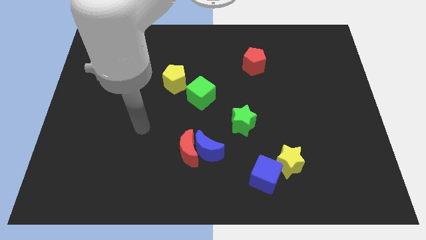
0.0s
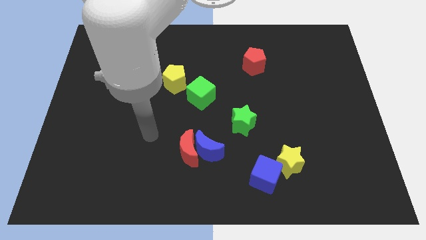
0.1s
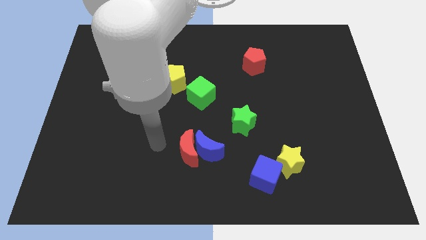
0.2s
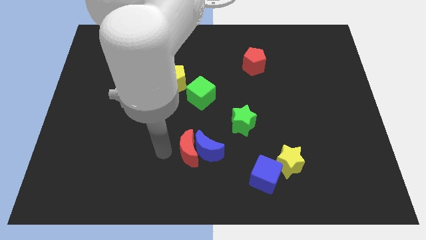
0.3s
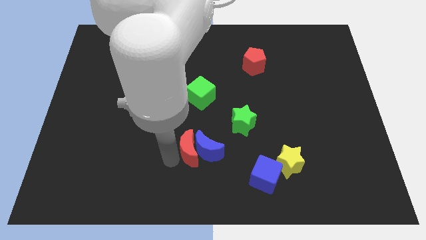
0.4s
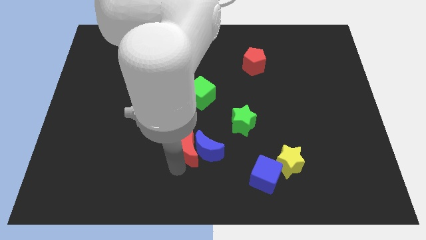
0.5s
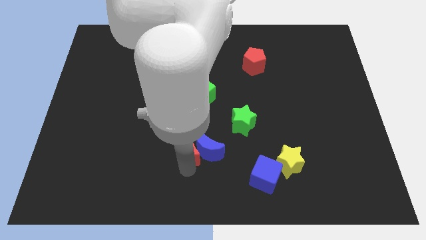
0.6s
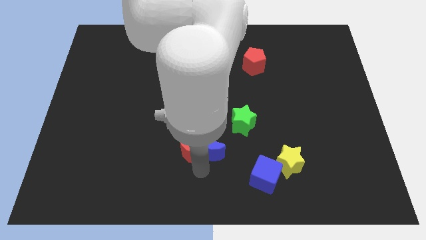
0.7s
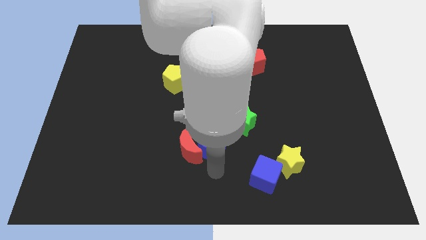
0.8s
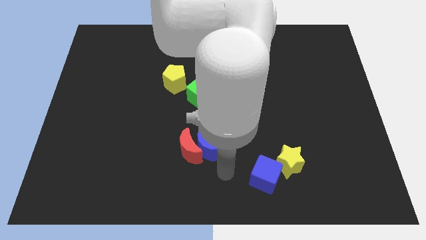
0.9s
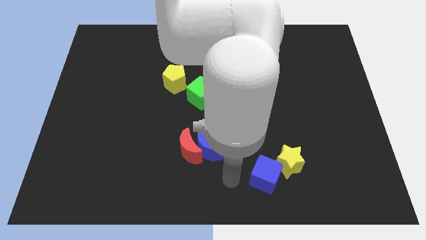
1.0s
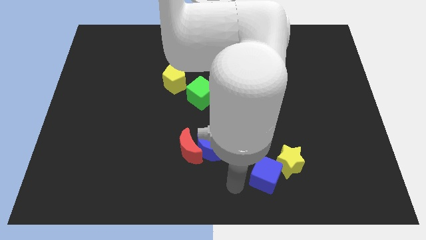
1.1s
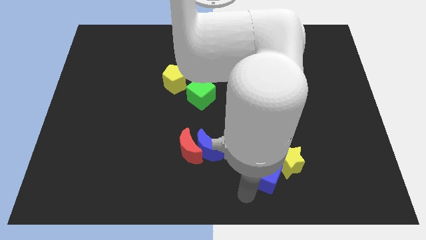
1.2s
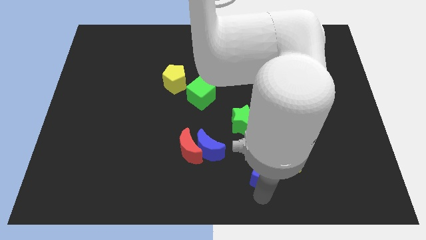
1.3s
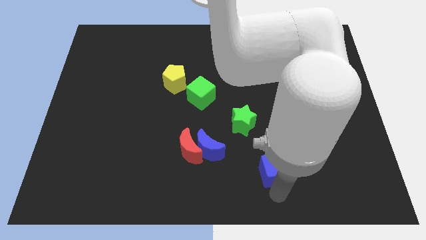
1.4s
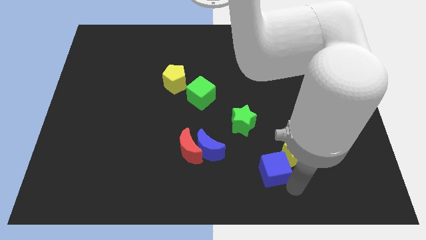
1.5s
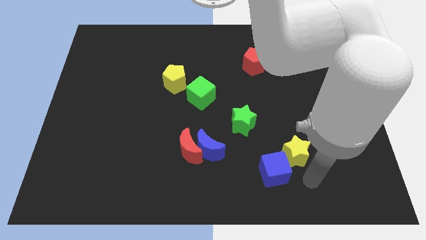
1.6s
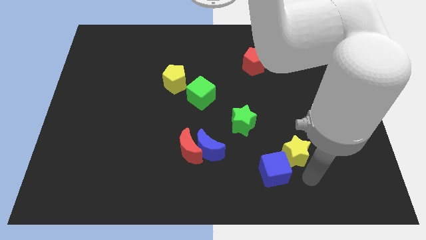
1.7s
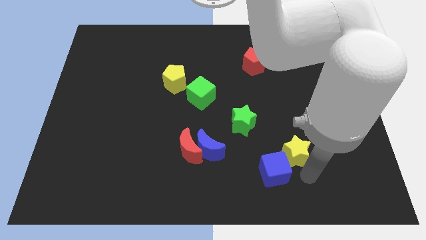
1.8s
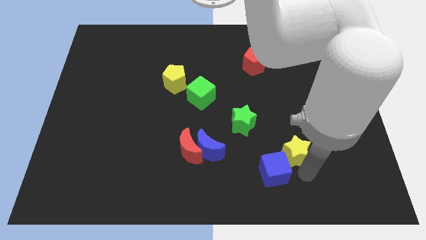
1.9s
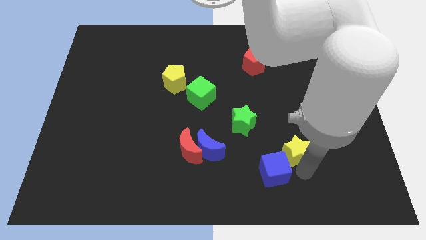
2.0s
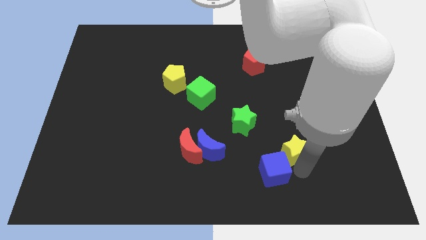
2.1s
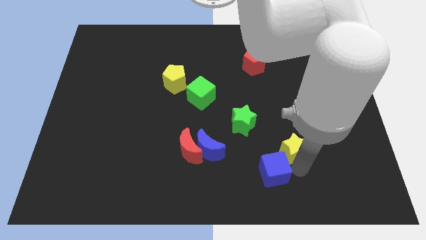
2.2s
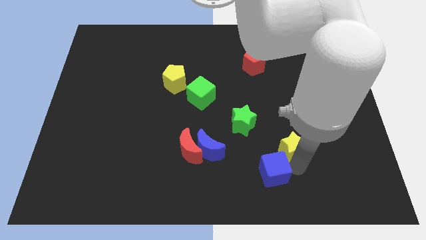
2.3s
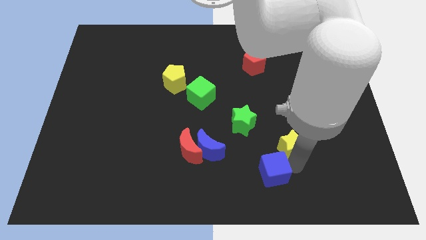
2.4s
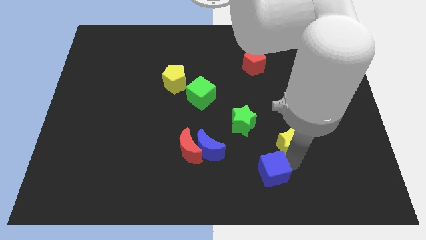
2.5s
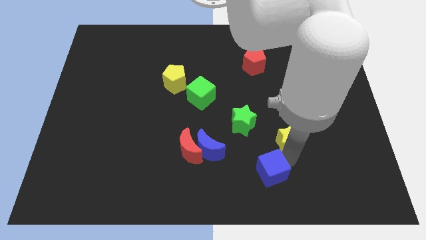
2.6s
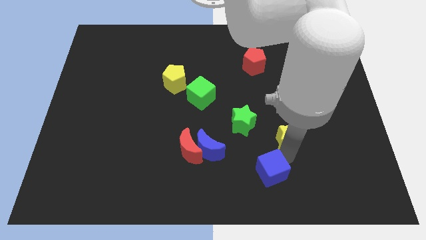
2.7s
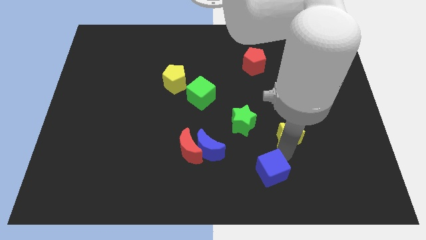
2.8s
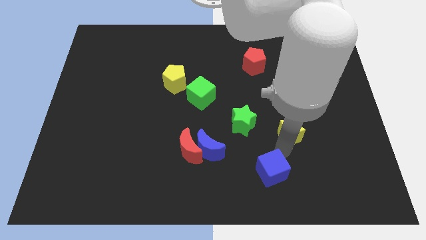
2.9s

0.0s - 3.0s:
slide the yellow star up a bit

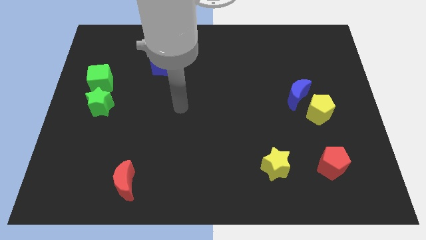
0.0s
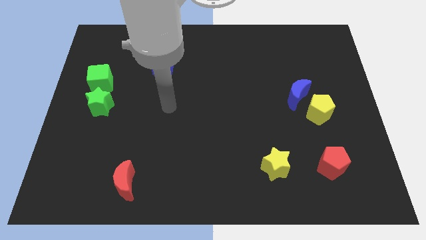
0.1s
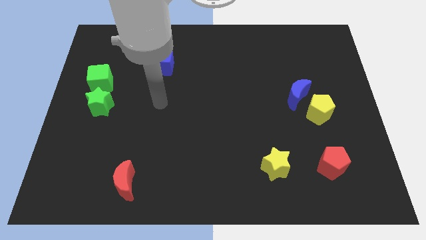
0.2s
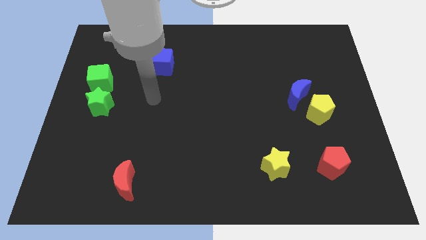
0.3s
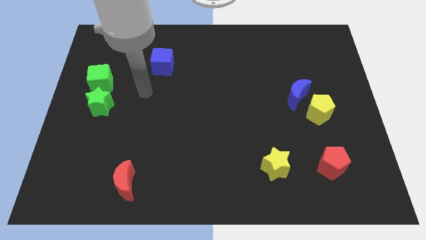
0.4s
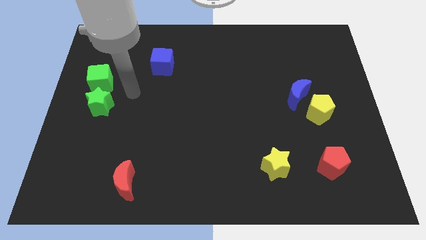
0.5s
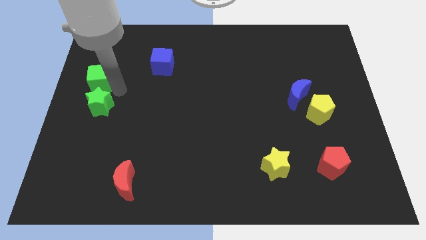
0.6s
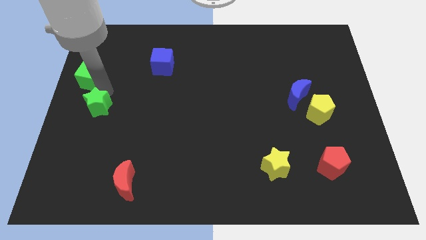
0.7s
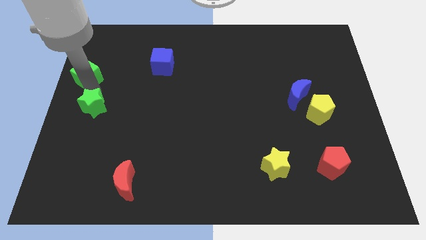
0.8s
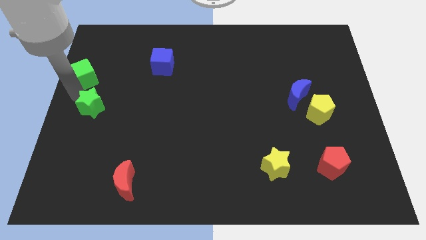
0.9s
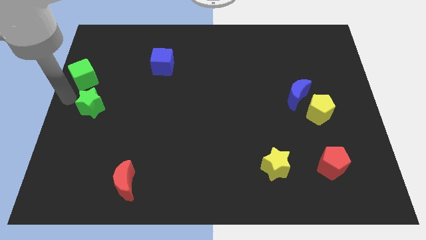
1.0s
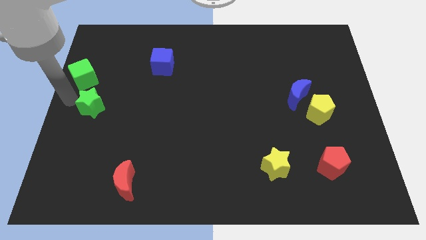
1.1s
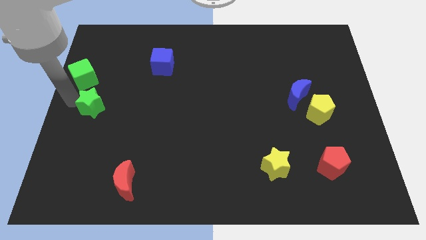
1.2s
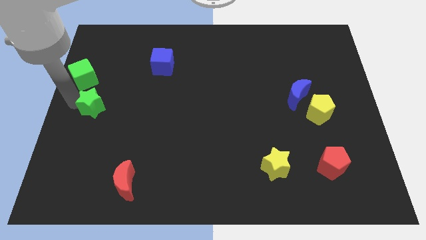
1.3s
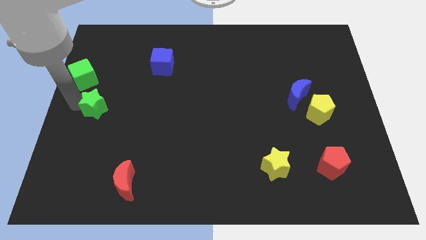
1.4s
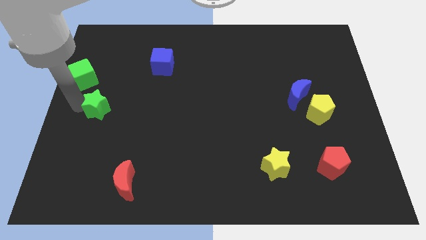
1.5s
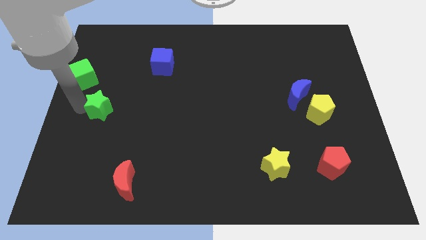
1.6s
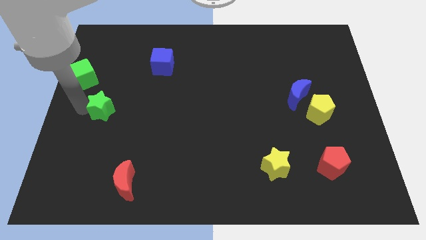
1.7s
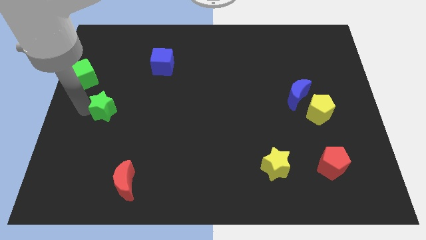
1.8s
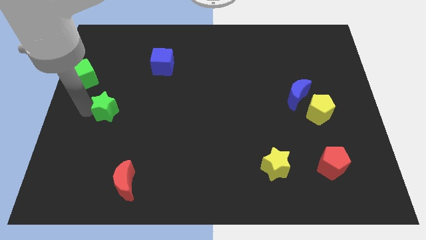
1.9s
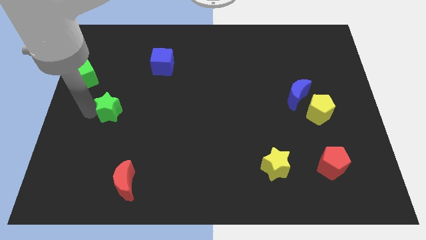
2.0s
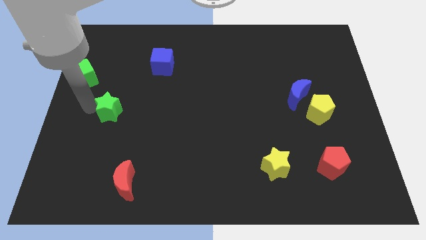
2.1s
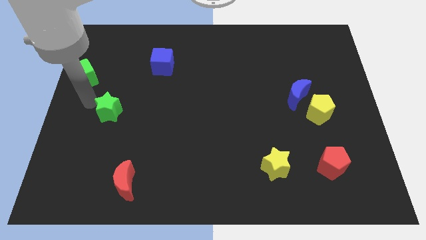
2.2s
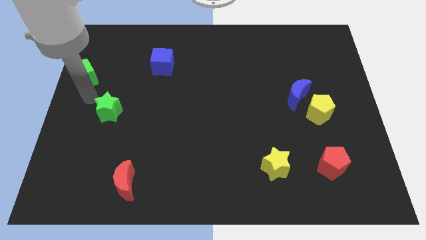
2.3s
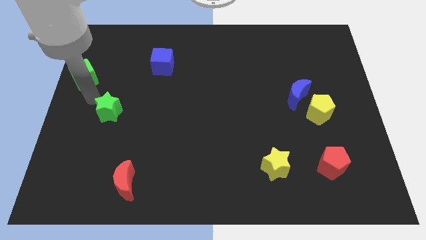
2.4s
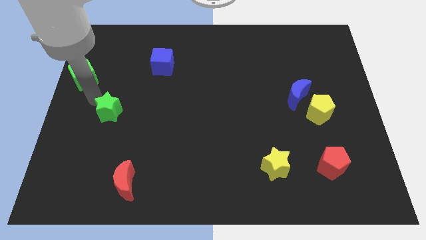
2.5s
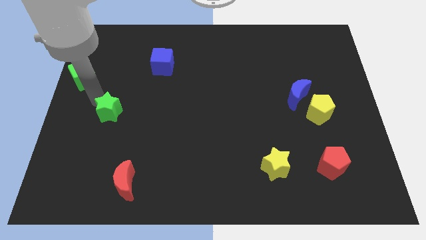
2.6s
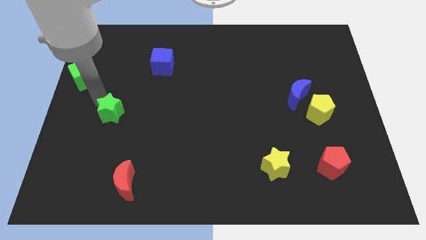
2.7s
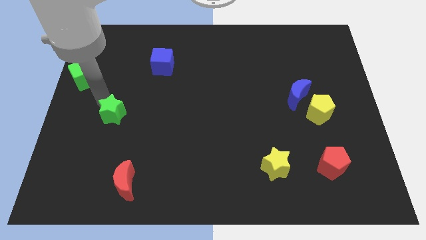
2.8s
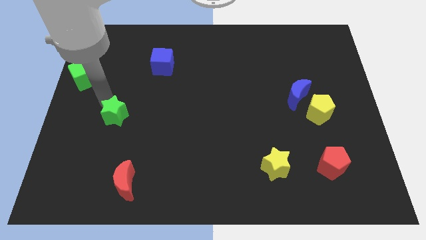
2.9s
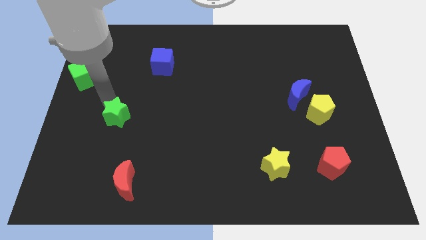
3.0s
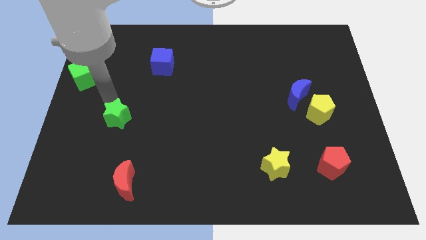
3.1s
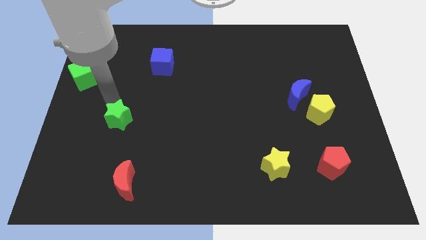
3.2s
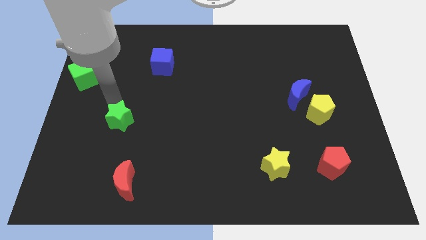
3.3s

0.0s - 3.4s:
push the green star down and to the right diagonally slightly

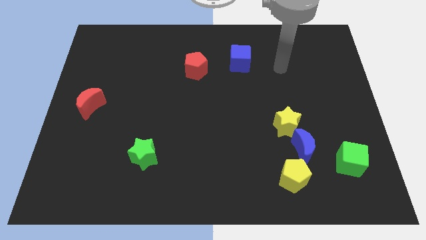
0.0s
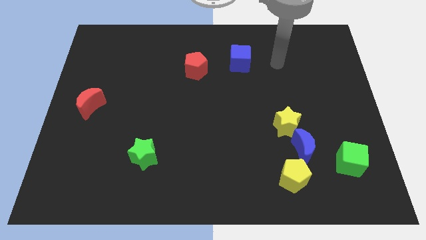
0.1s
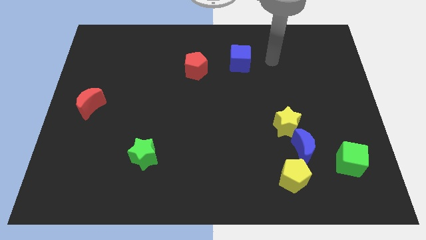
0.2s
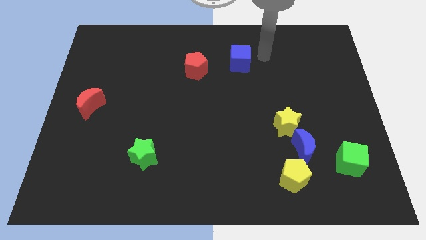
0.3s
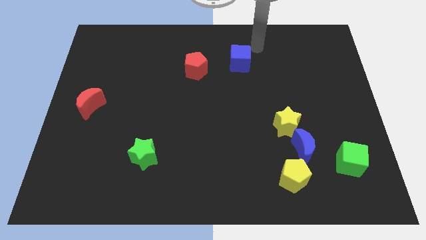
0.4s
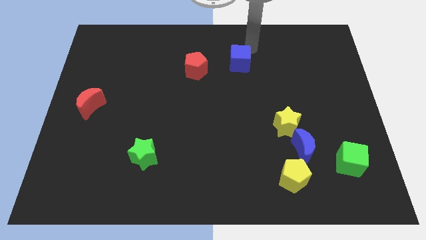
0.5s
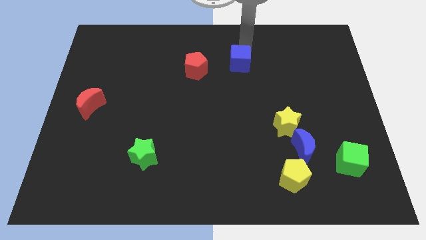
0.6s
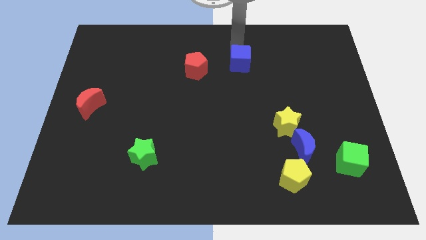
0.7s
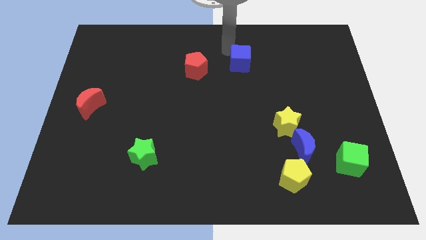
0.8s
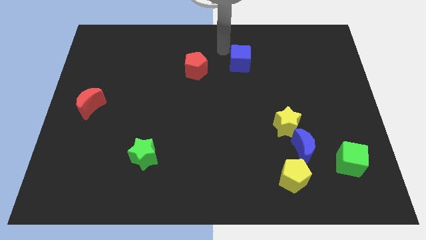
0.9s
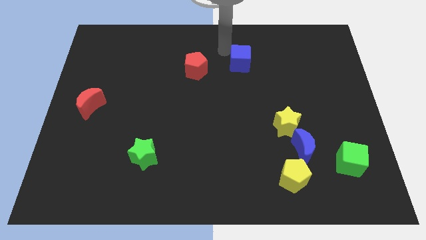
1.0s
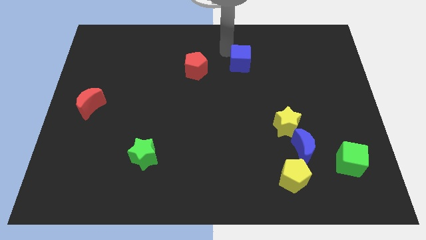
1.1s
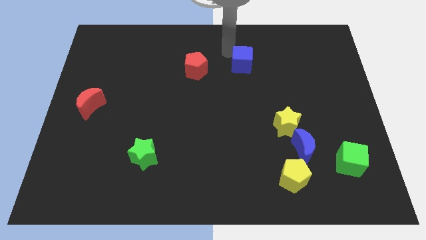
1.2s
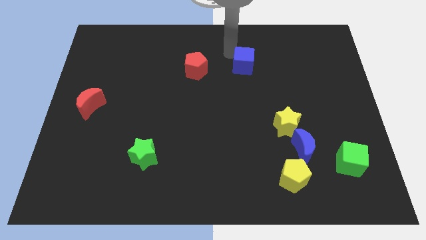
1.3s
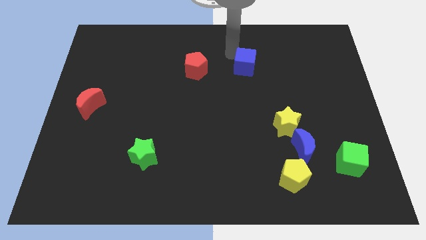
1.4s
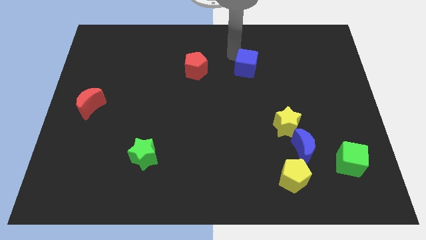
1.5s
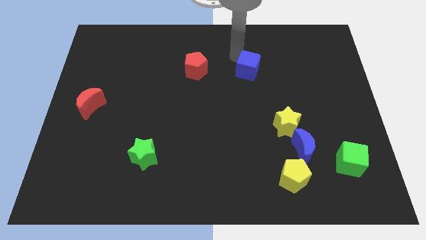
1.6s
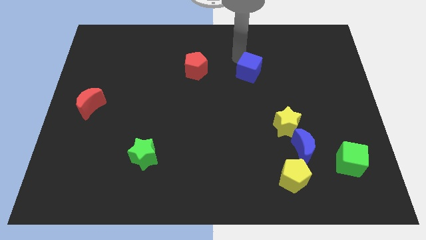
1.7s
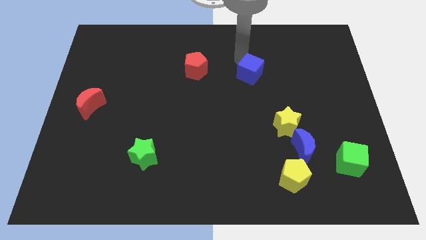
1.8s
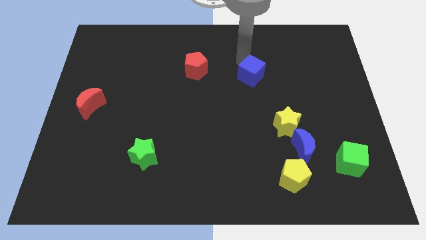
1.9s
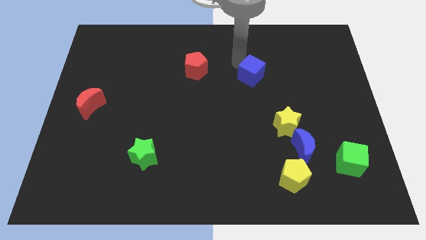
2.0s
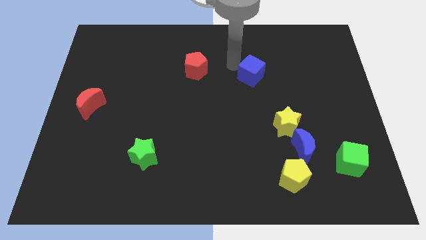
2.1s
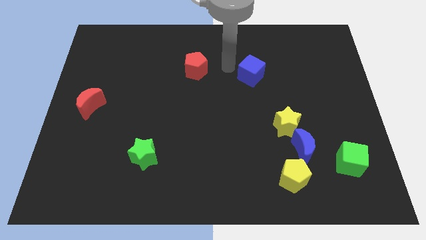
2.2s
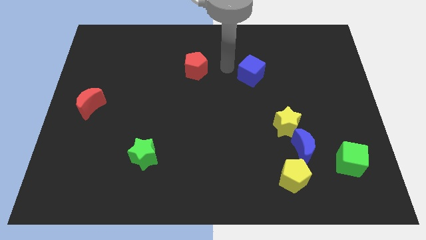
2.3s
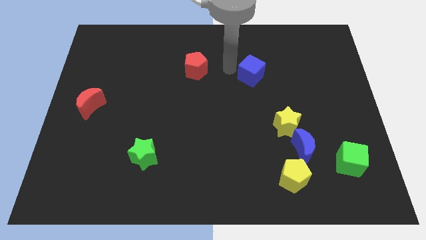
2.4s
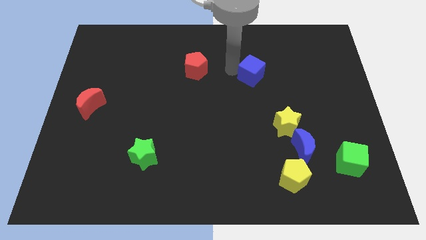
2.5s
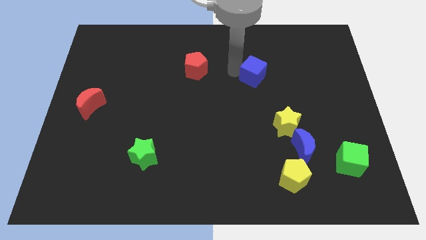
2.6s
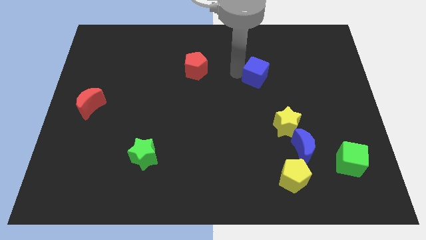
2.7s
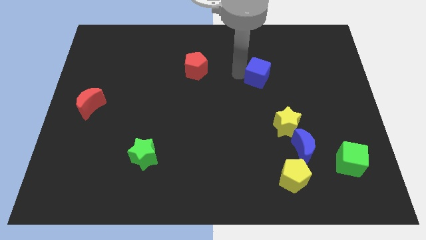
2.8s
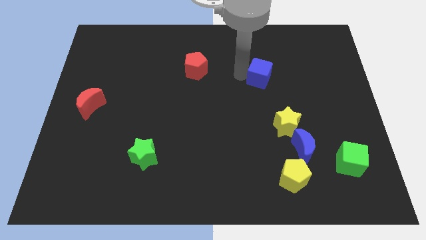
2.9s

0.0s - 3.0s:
slide the blue cube downwards and right diagonally a little
